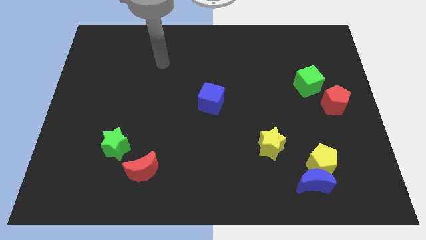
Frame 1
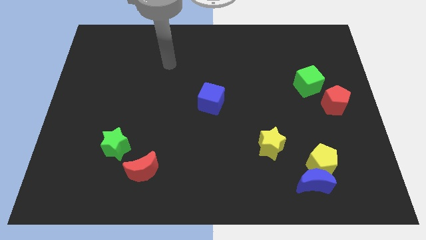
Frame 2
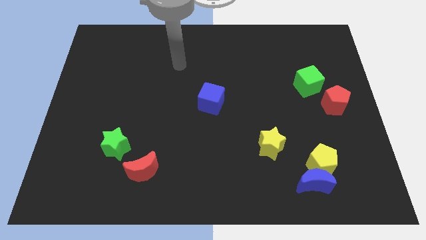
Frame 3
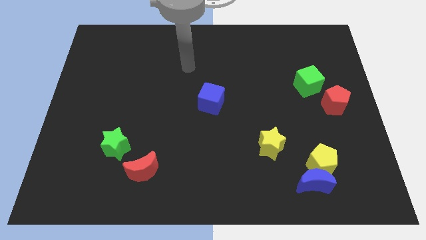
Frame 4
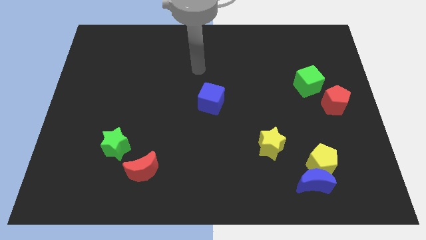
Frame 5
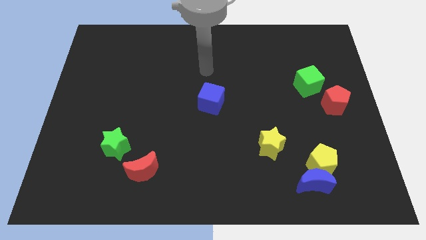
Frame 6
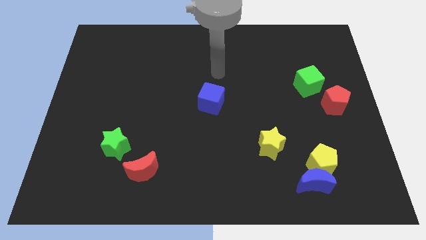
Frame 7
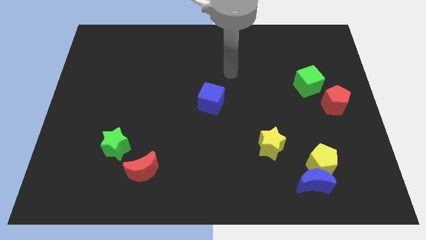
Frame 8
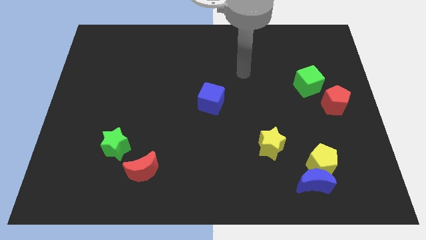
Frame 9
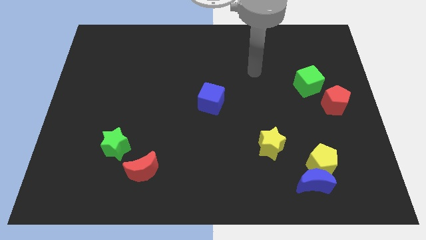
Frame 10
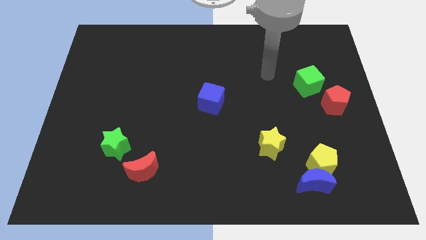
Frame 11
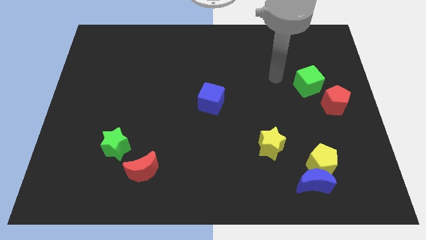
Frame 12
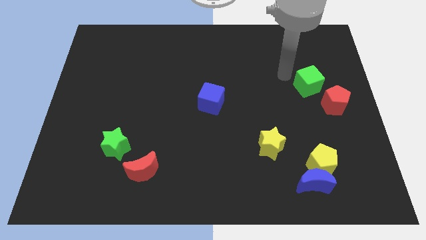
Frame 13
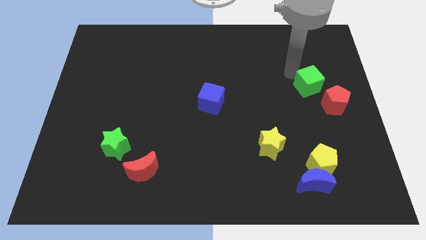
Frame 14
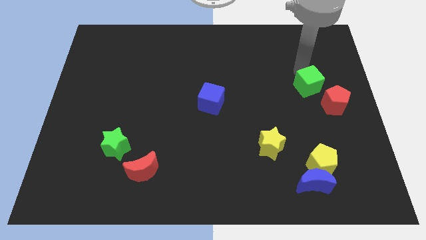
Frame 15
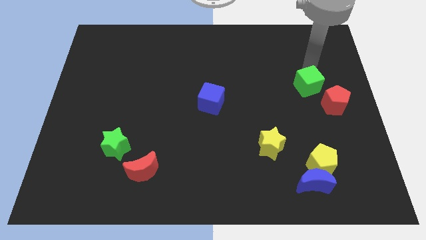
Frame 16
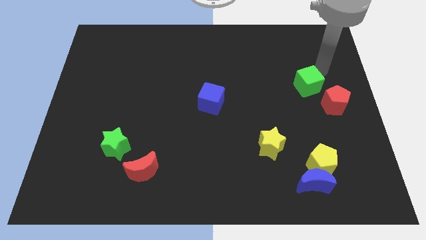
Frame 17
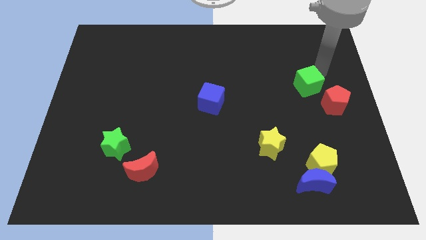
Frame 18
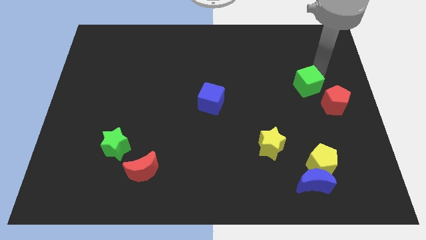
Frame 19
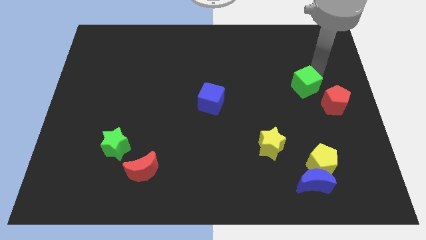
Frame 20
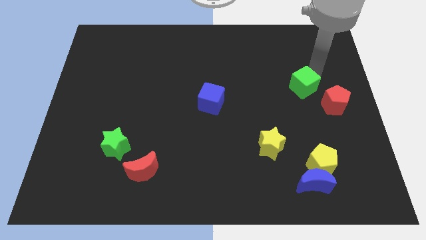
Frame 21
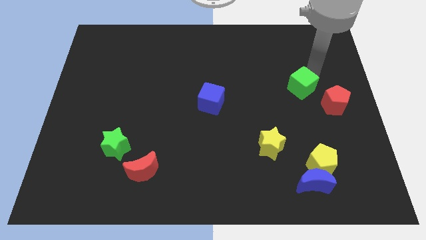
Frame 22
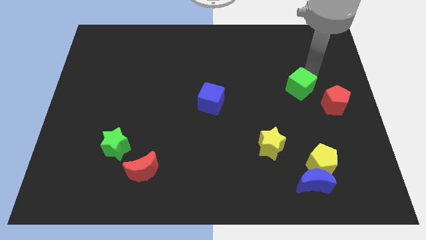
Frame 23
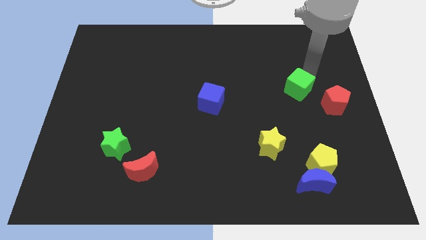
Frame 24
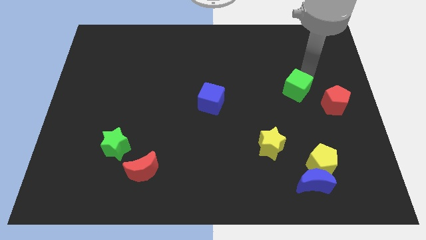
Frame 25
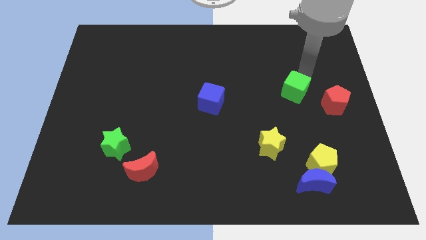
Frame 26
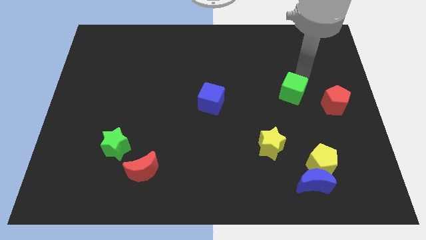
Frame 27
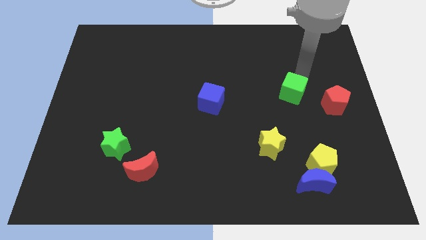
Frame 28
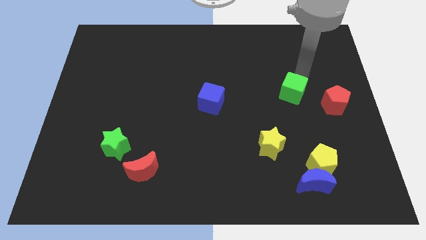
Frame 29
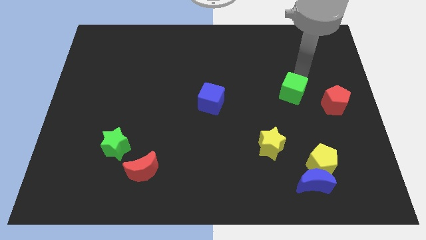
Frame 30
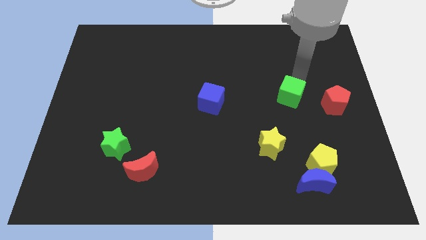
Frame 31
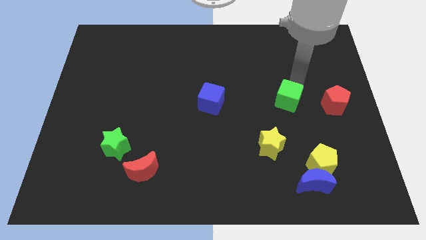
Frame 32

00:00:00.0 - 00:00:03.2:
move the green cube downwards and then left a little

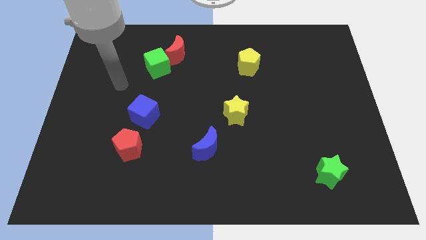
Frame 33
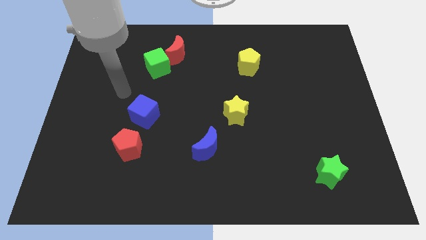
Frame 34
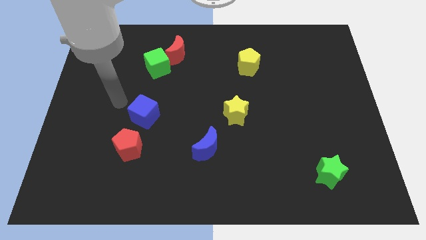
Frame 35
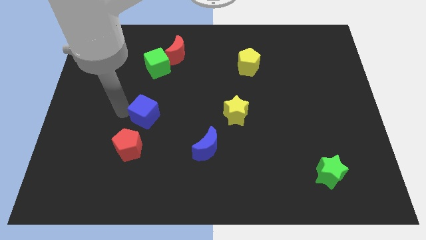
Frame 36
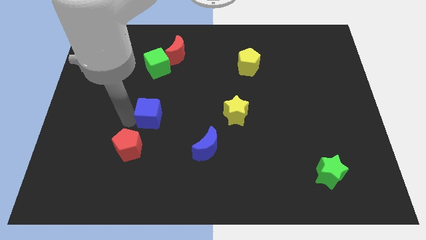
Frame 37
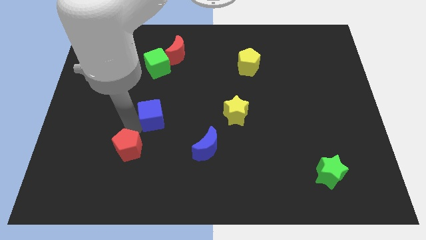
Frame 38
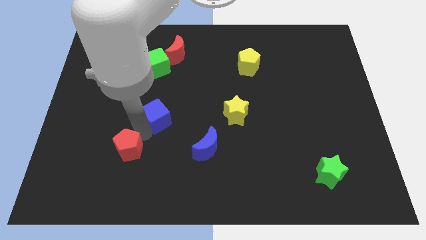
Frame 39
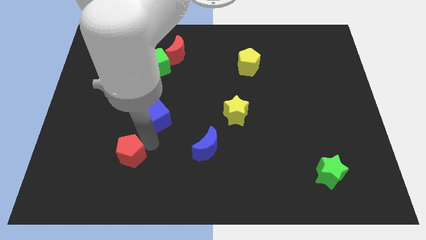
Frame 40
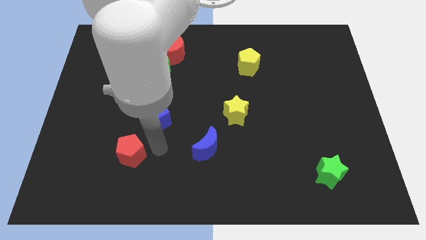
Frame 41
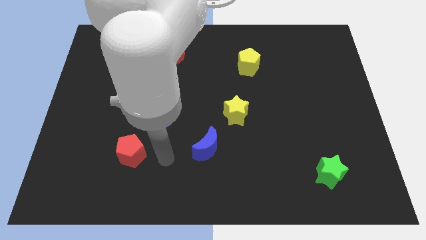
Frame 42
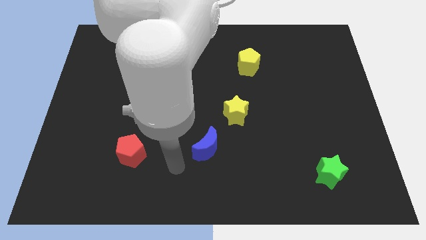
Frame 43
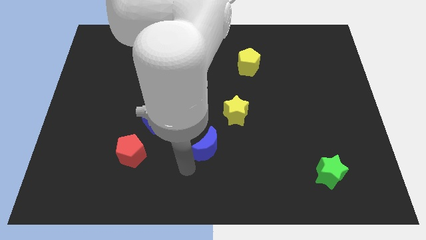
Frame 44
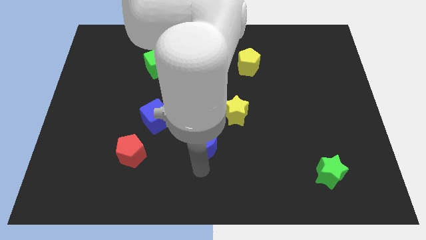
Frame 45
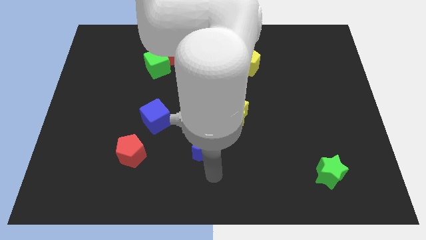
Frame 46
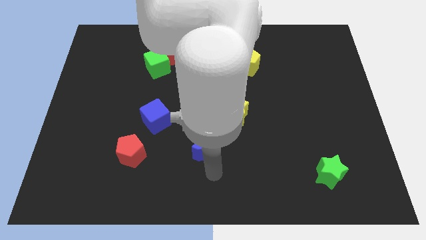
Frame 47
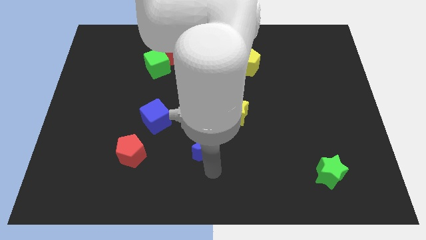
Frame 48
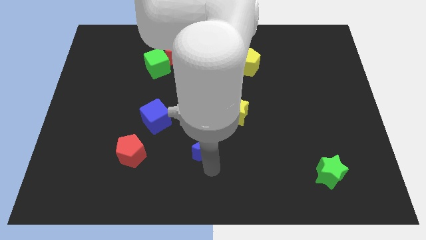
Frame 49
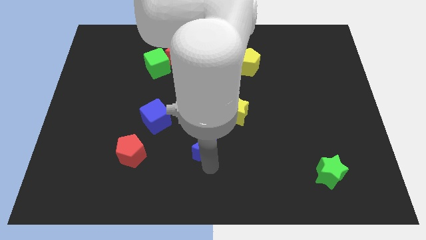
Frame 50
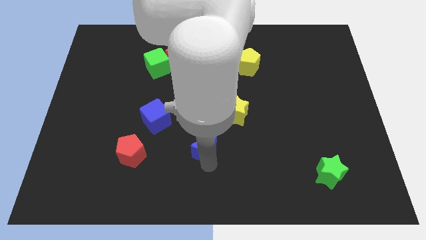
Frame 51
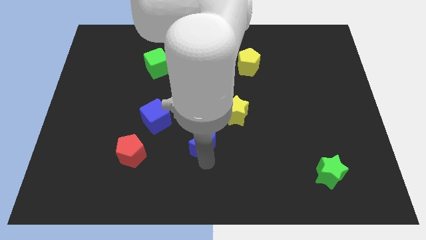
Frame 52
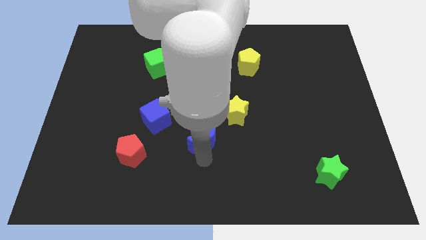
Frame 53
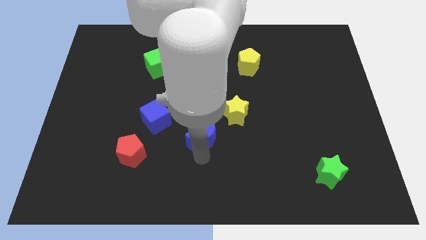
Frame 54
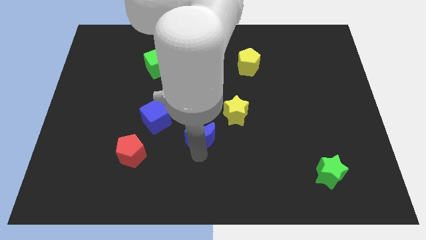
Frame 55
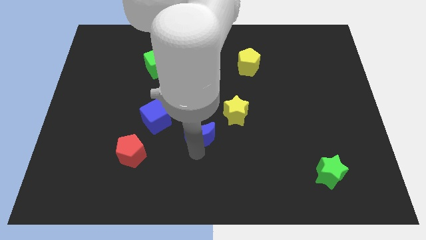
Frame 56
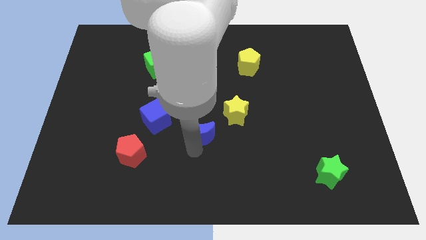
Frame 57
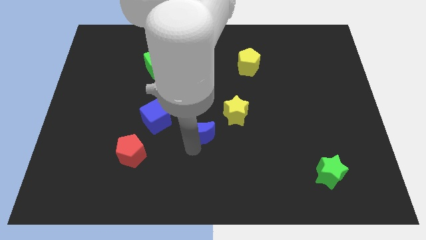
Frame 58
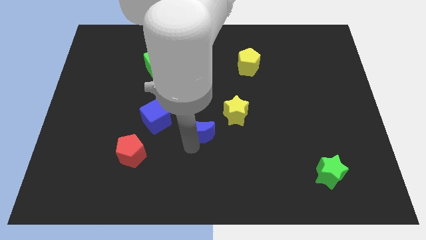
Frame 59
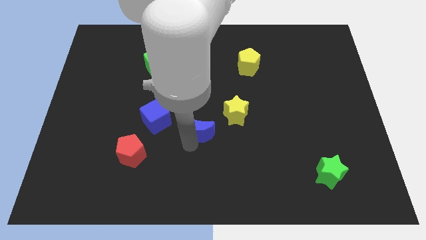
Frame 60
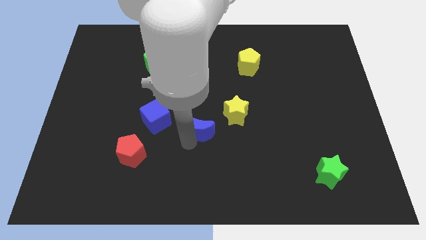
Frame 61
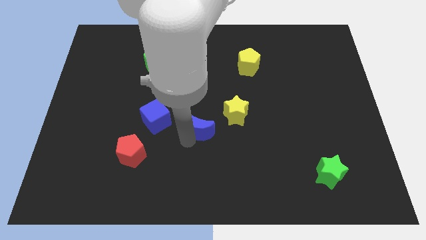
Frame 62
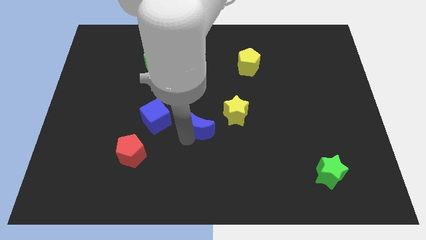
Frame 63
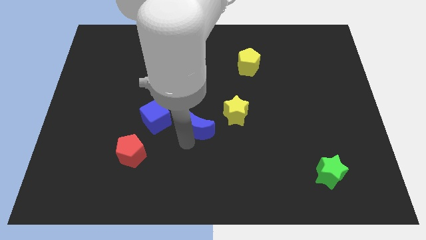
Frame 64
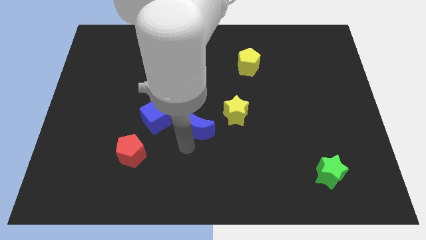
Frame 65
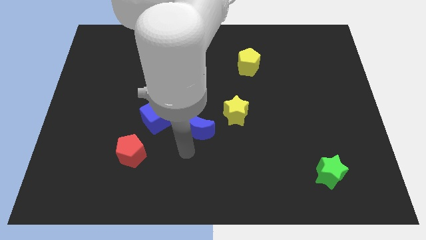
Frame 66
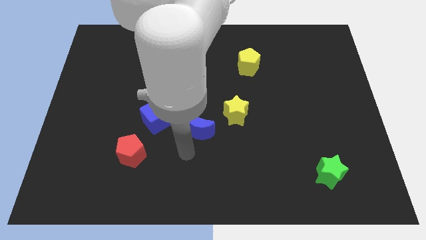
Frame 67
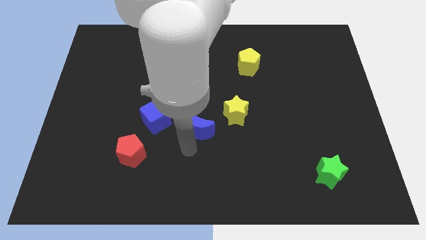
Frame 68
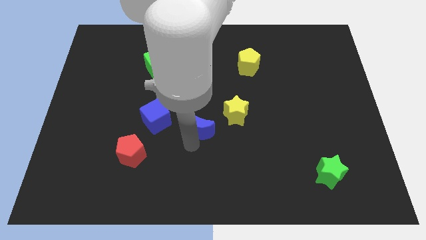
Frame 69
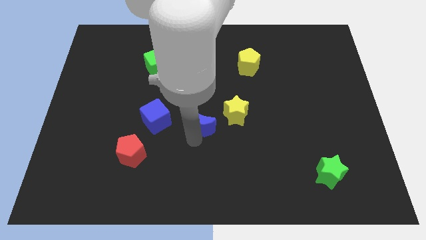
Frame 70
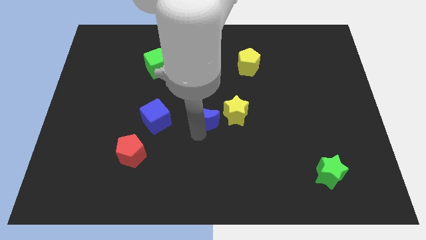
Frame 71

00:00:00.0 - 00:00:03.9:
slightly push the blue moon upwards

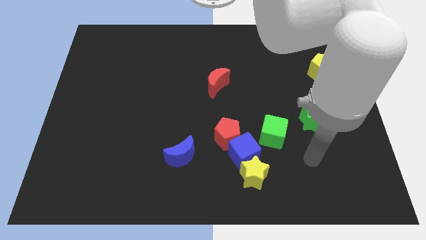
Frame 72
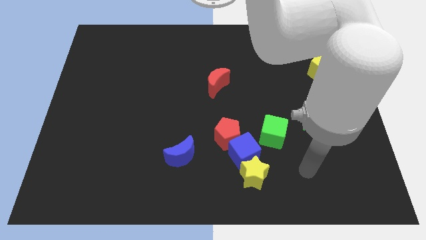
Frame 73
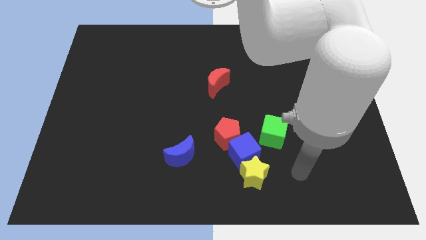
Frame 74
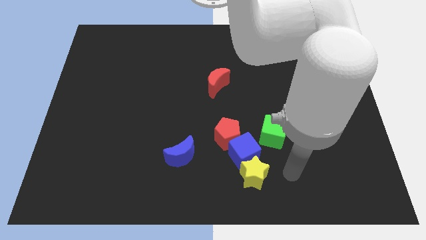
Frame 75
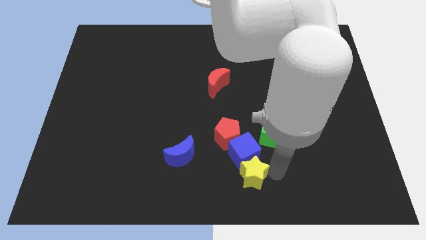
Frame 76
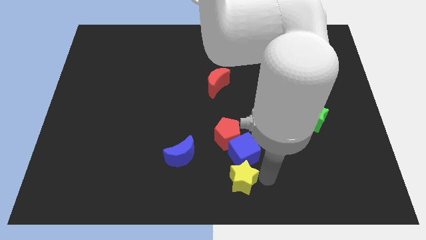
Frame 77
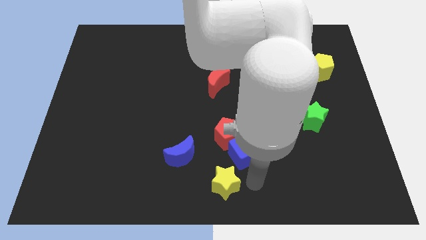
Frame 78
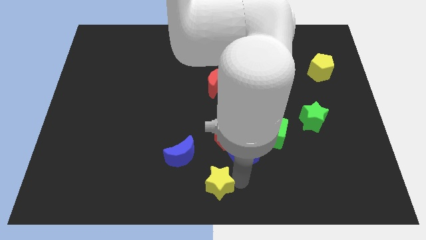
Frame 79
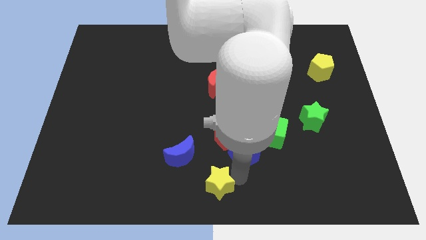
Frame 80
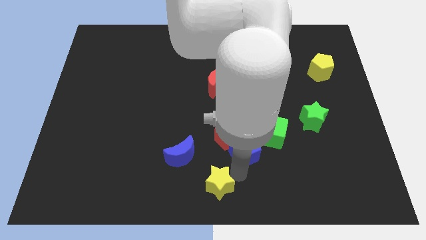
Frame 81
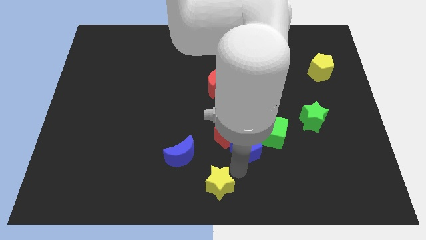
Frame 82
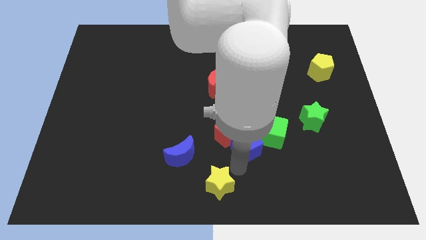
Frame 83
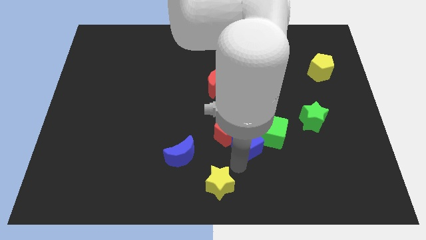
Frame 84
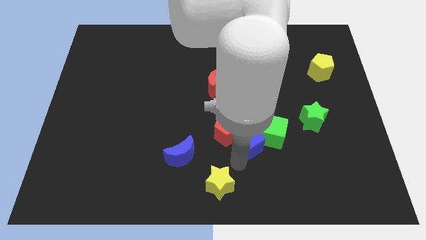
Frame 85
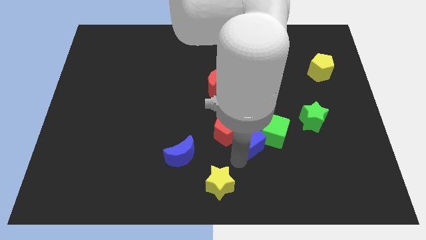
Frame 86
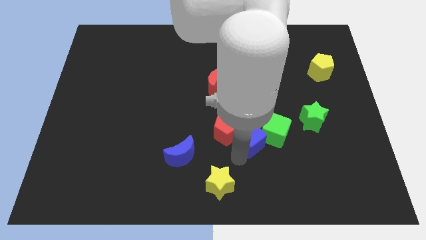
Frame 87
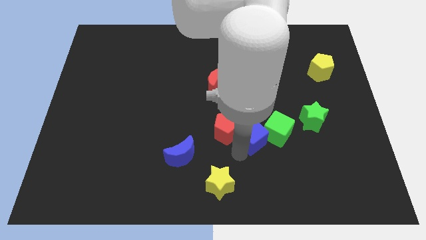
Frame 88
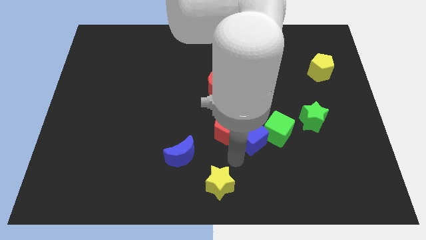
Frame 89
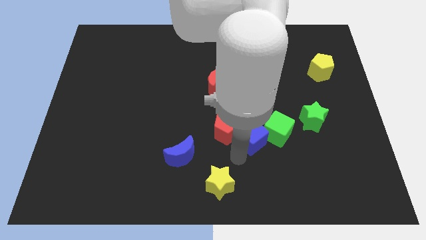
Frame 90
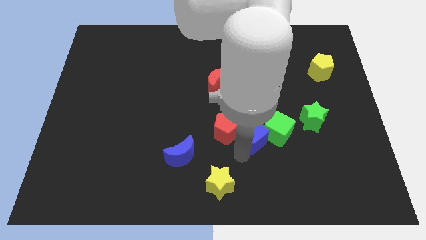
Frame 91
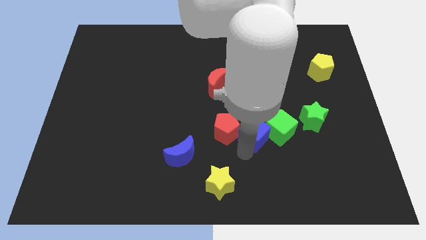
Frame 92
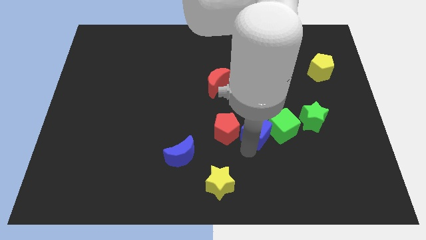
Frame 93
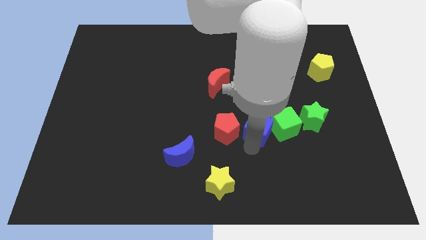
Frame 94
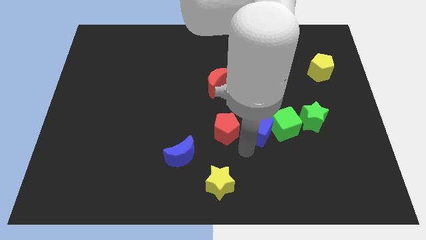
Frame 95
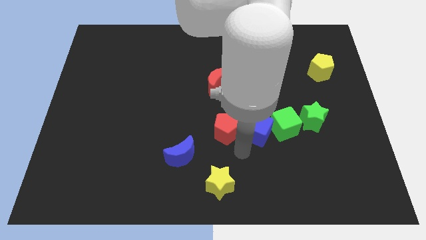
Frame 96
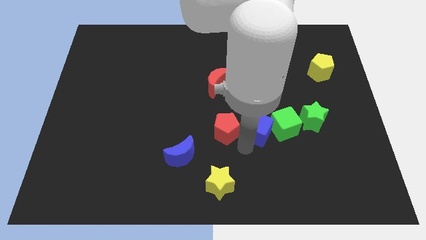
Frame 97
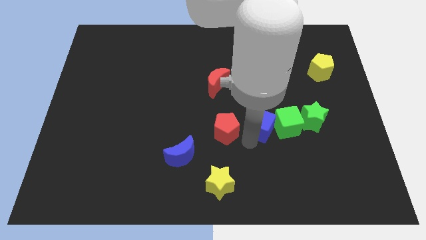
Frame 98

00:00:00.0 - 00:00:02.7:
push the blue cube upwards and right slightly
